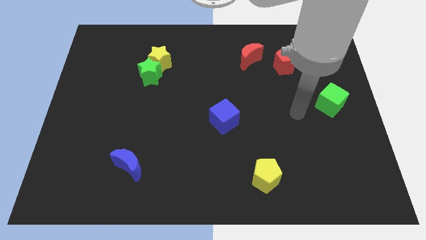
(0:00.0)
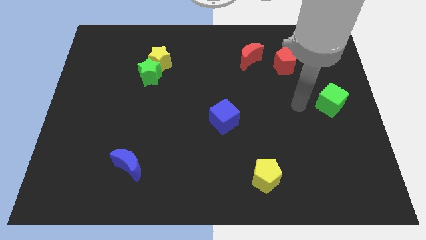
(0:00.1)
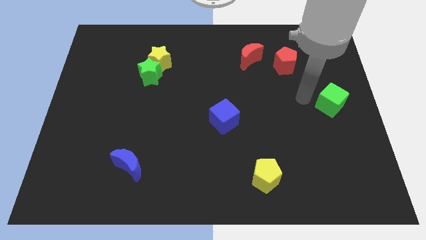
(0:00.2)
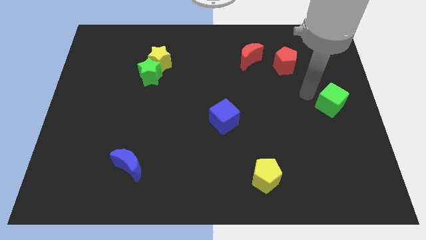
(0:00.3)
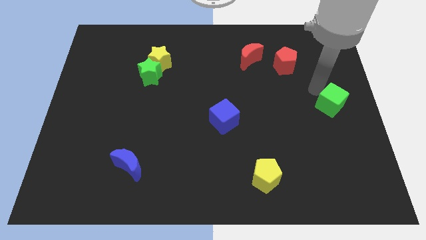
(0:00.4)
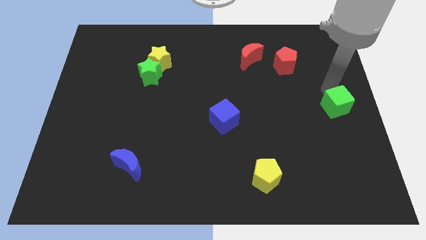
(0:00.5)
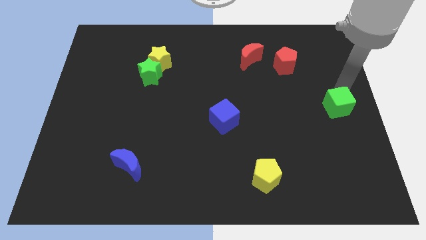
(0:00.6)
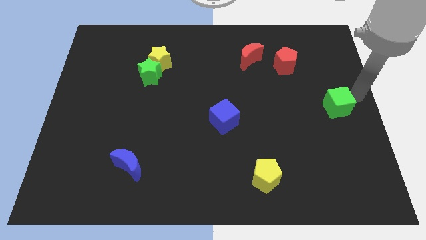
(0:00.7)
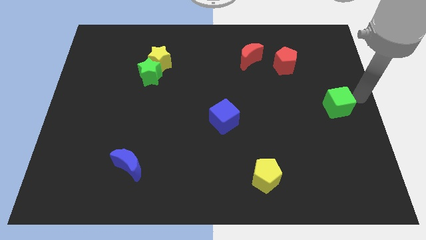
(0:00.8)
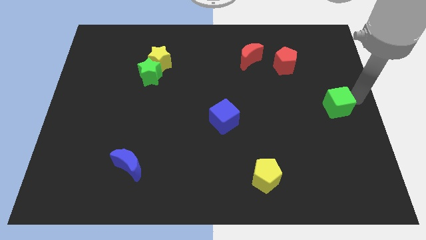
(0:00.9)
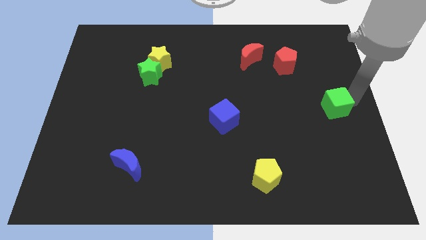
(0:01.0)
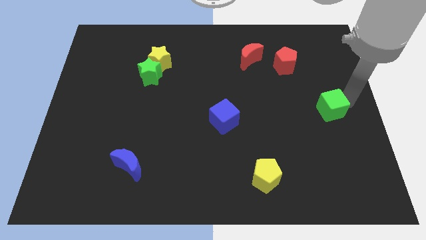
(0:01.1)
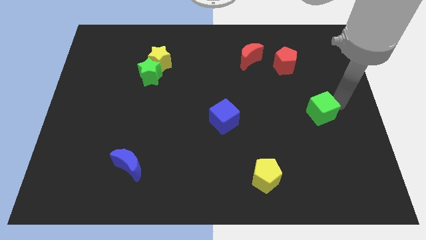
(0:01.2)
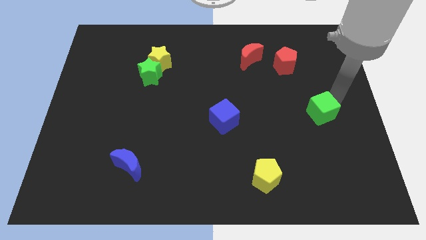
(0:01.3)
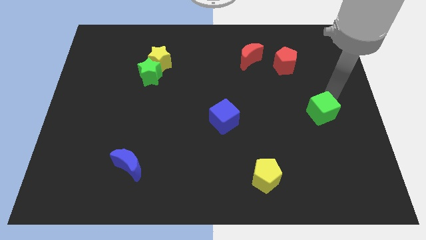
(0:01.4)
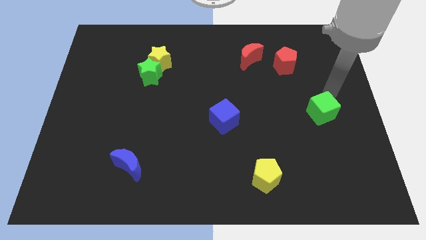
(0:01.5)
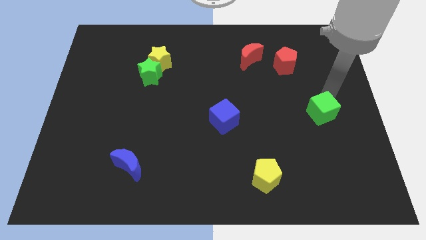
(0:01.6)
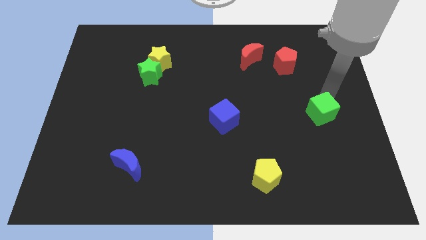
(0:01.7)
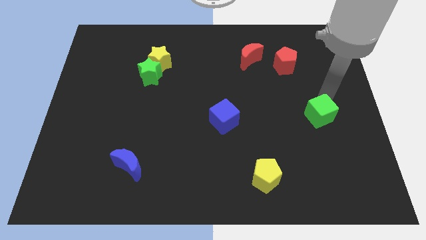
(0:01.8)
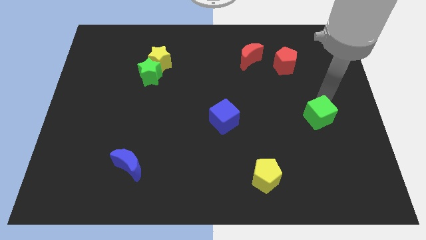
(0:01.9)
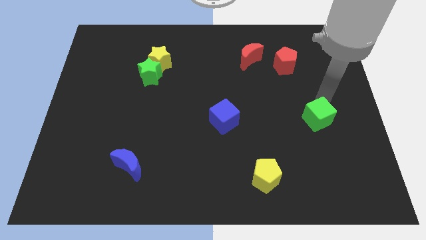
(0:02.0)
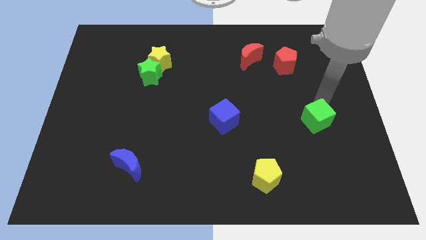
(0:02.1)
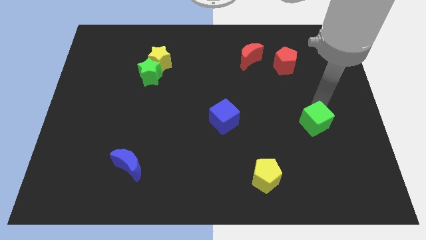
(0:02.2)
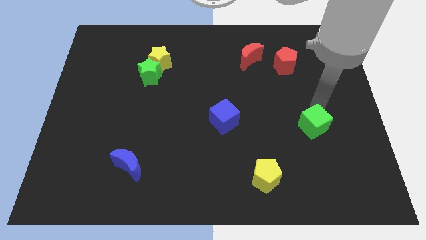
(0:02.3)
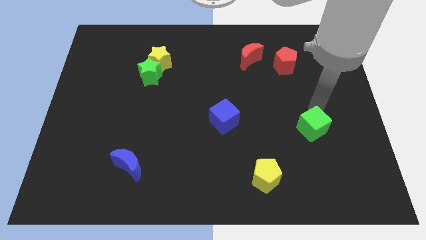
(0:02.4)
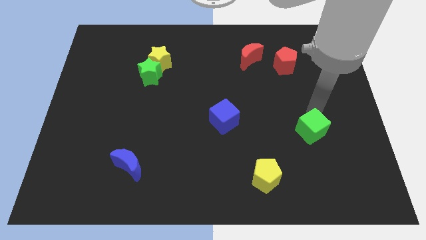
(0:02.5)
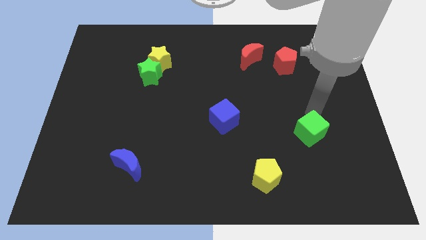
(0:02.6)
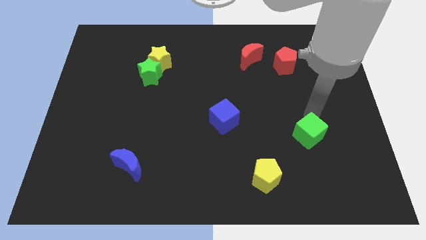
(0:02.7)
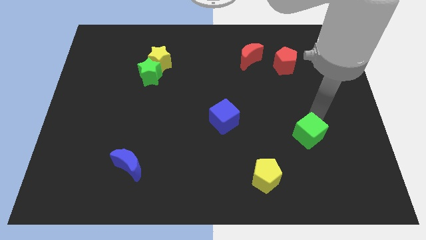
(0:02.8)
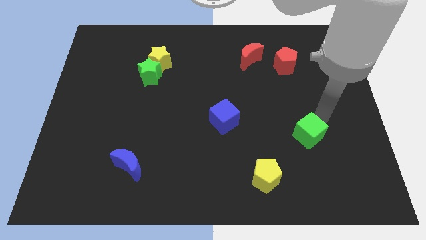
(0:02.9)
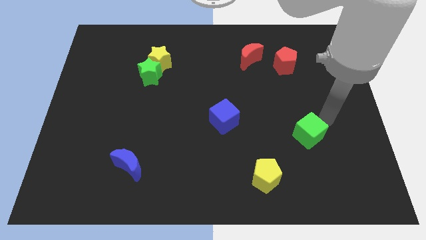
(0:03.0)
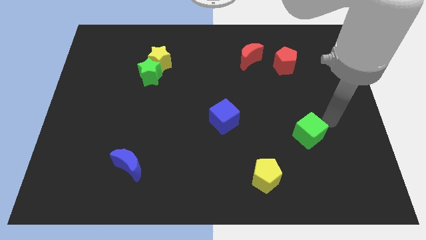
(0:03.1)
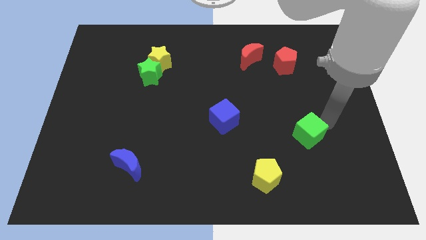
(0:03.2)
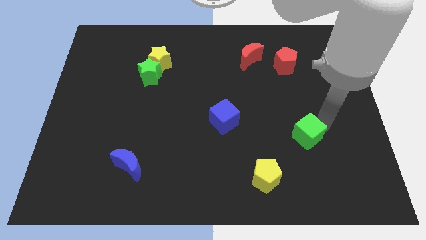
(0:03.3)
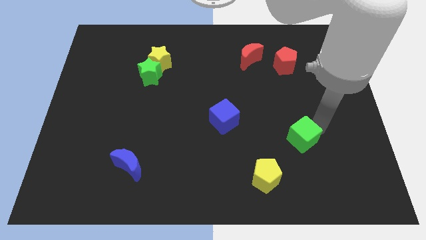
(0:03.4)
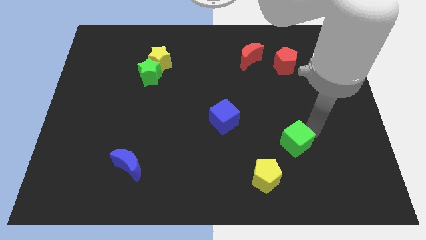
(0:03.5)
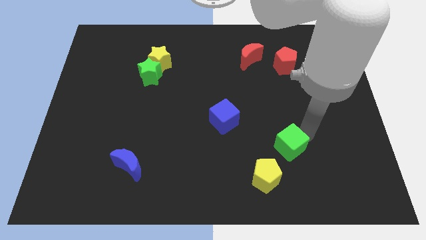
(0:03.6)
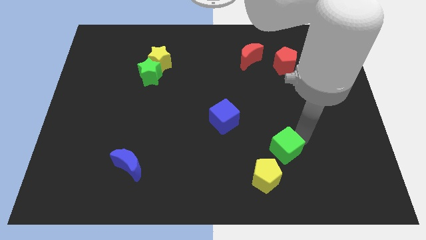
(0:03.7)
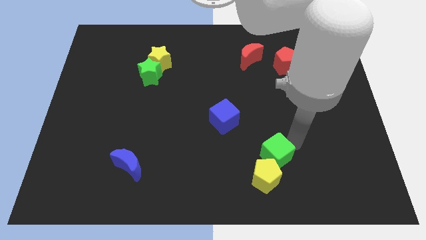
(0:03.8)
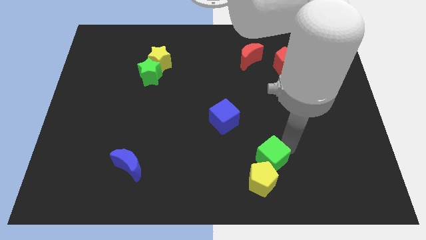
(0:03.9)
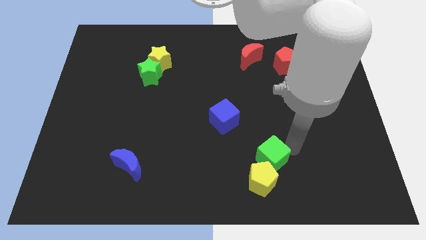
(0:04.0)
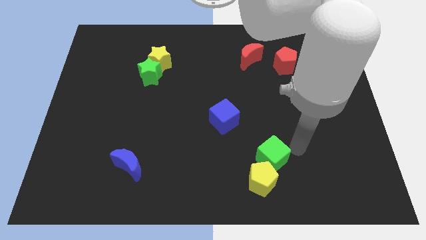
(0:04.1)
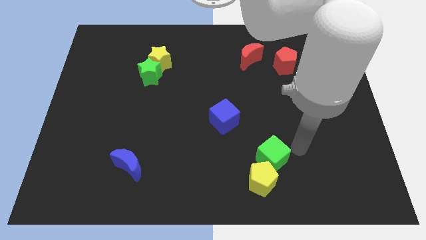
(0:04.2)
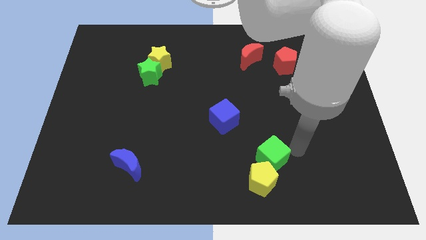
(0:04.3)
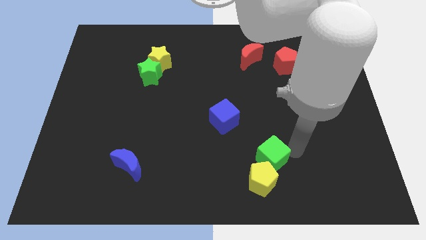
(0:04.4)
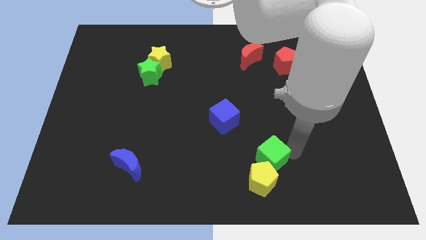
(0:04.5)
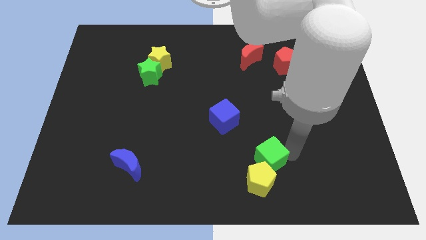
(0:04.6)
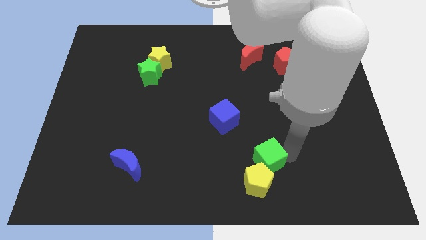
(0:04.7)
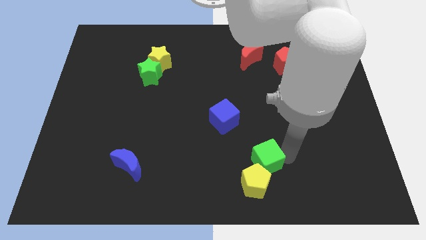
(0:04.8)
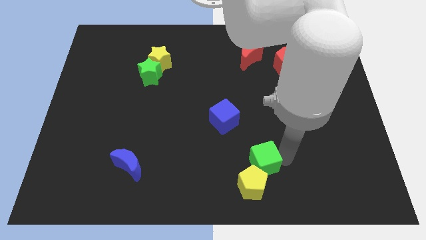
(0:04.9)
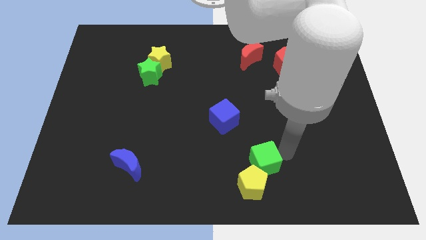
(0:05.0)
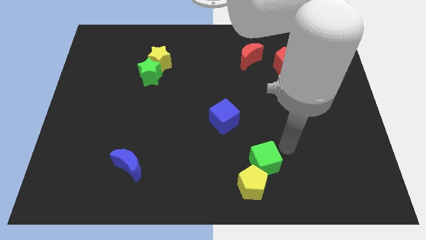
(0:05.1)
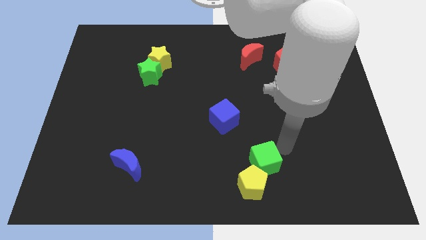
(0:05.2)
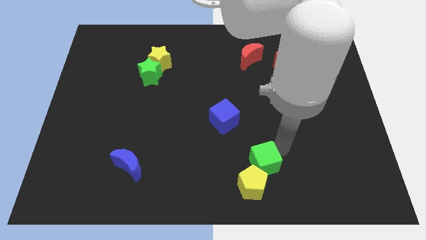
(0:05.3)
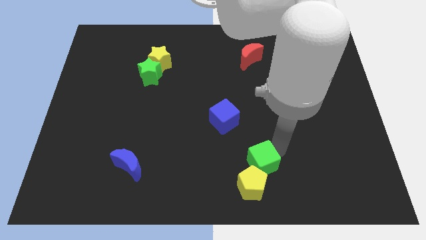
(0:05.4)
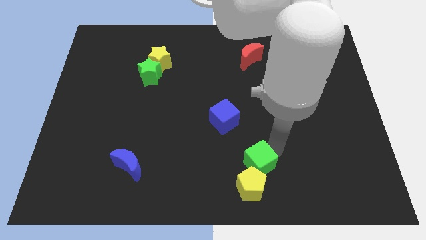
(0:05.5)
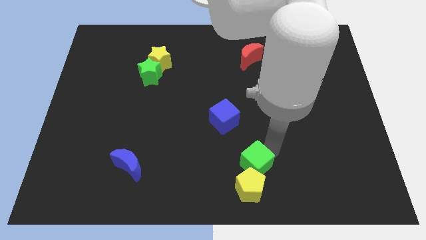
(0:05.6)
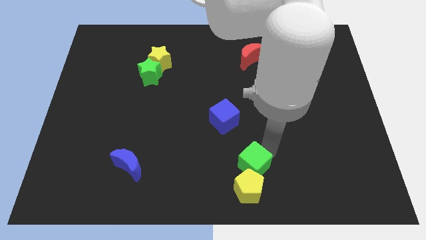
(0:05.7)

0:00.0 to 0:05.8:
push the green cube to the bottom

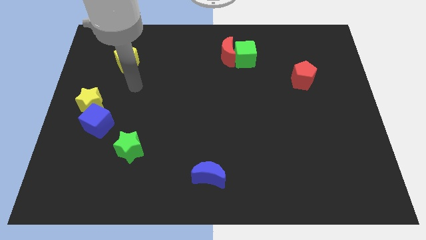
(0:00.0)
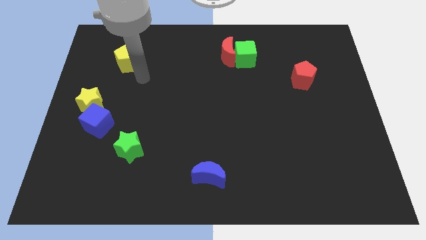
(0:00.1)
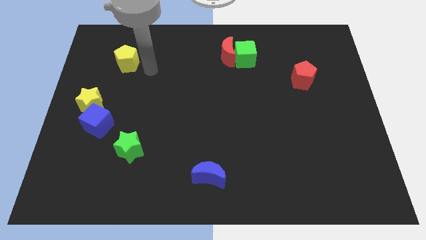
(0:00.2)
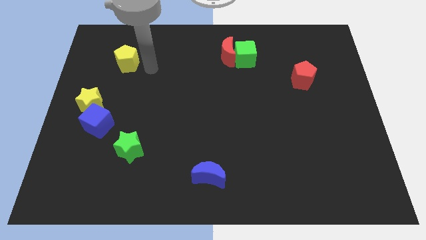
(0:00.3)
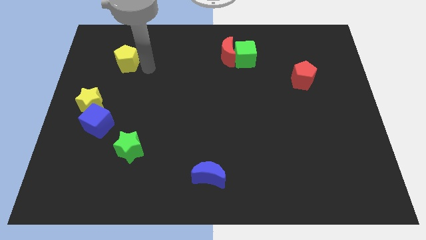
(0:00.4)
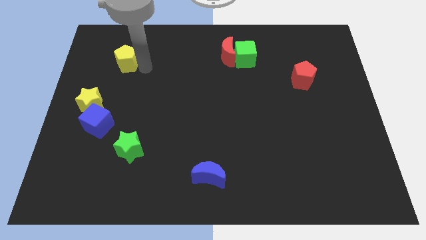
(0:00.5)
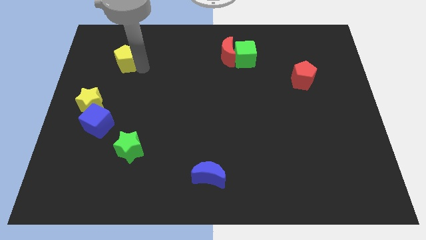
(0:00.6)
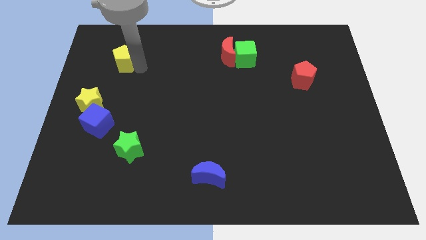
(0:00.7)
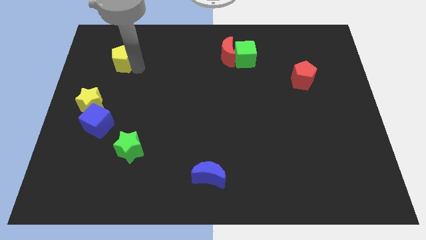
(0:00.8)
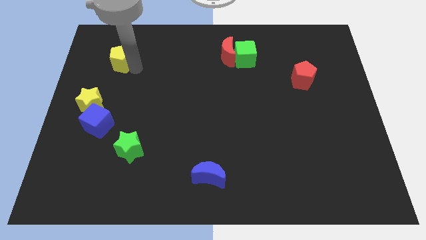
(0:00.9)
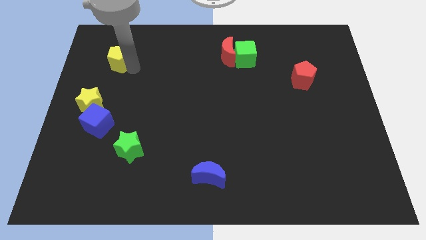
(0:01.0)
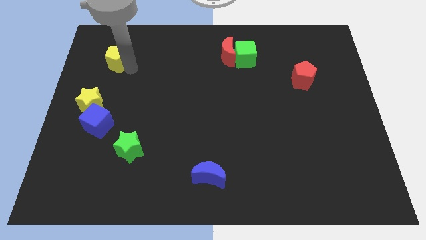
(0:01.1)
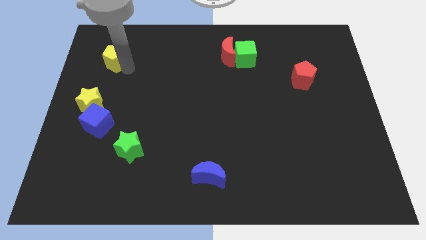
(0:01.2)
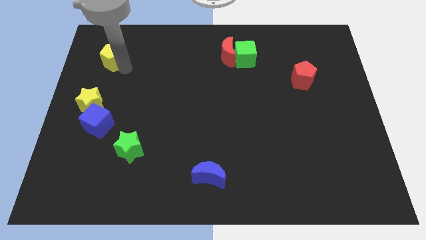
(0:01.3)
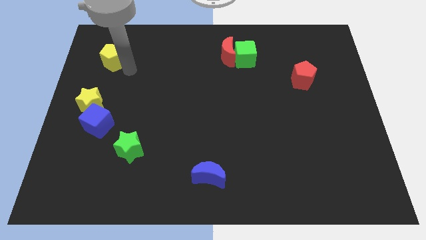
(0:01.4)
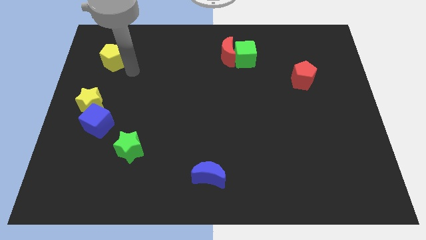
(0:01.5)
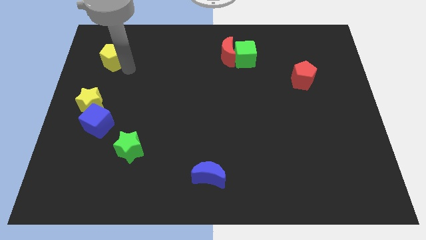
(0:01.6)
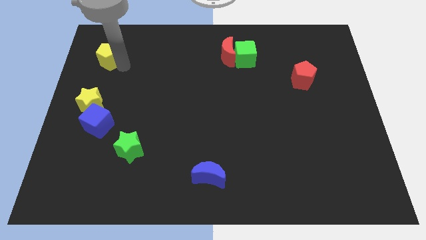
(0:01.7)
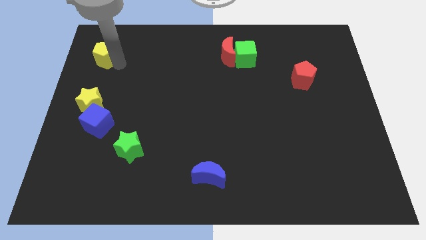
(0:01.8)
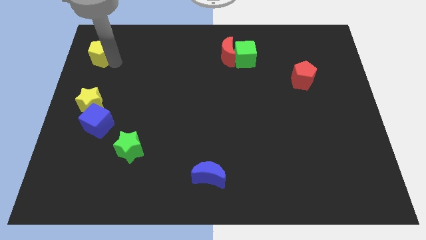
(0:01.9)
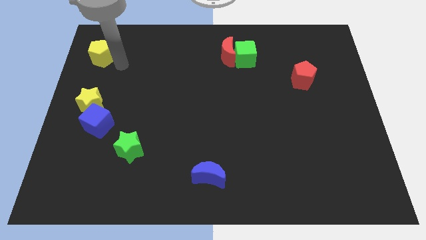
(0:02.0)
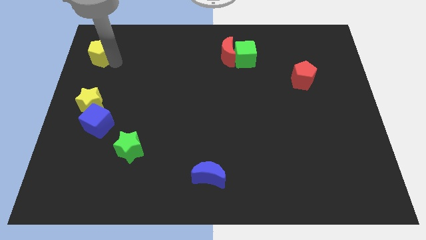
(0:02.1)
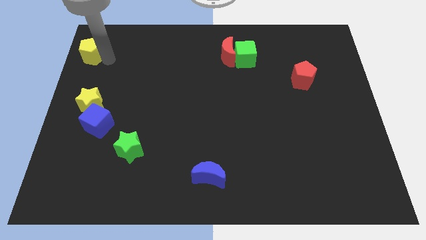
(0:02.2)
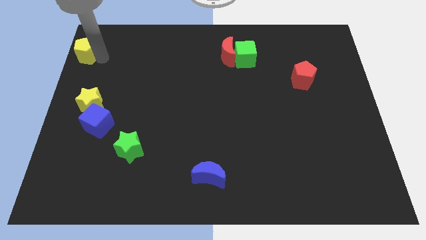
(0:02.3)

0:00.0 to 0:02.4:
move the yellow pentagon to the top left

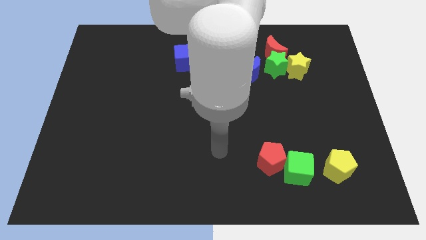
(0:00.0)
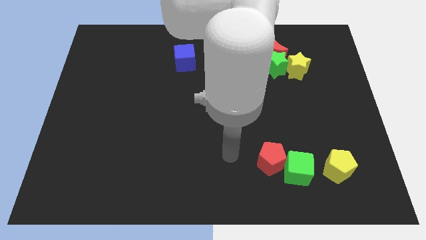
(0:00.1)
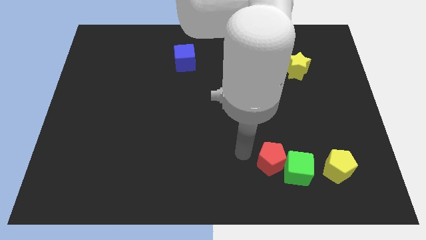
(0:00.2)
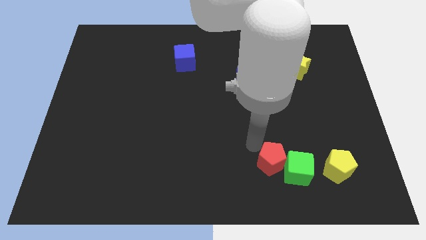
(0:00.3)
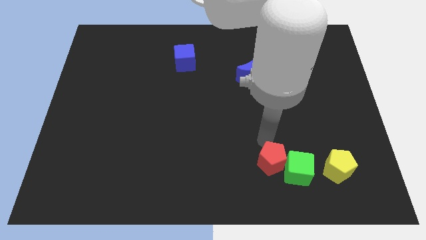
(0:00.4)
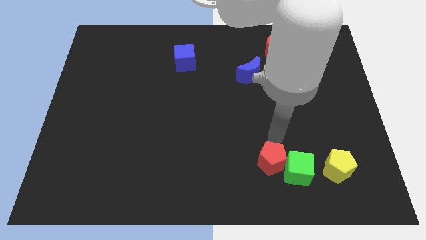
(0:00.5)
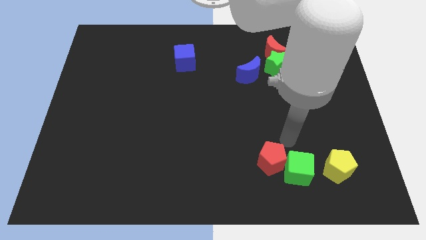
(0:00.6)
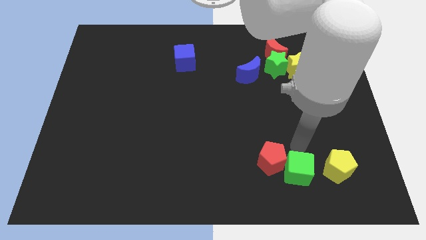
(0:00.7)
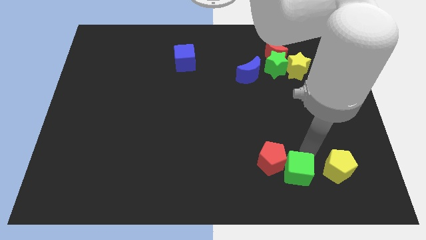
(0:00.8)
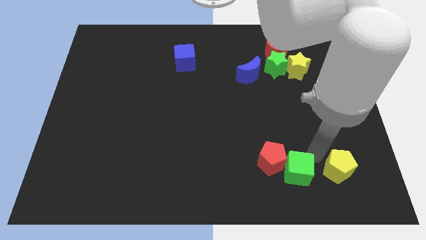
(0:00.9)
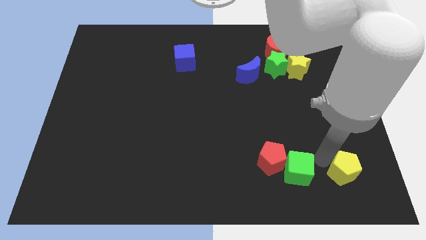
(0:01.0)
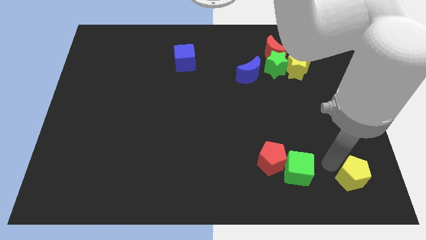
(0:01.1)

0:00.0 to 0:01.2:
push the yellow pentagon to the bottom right
